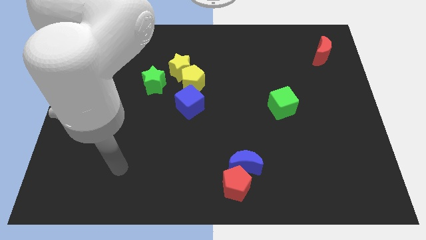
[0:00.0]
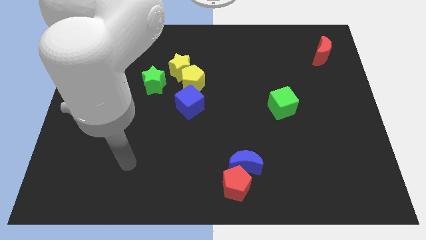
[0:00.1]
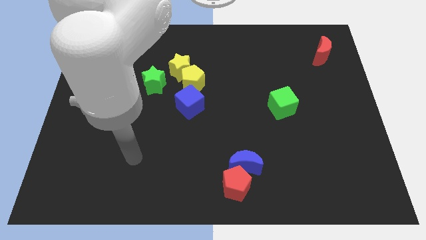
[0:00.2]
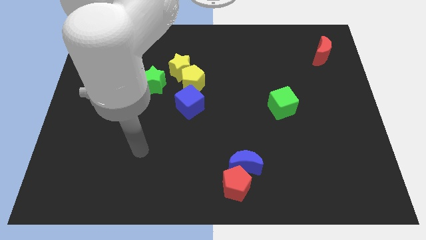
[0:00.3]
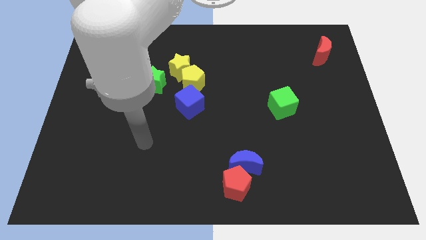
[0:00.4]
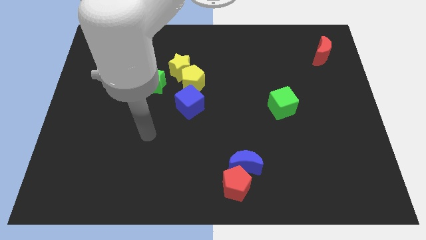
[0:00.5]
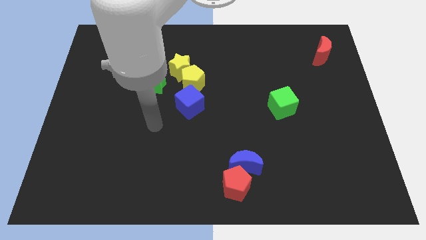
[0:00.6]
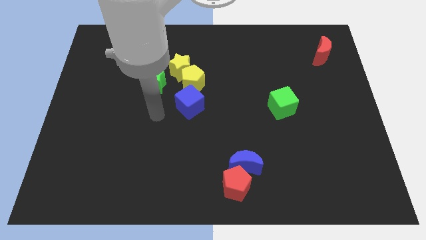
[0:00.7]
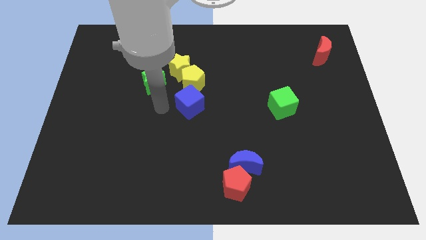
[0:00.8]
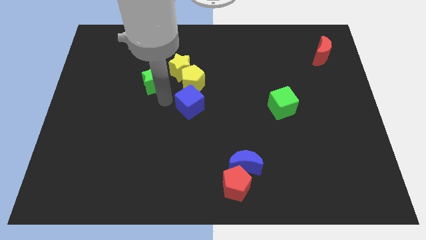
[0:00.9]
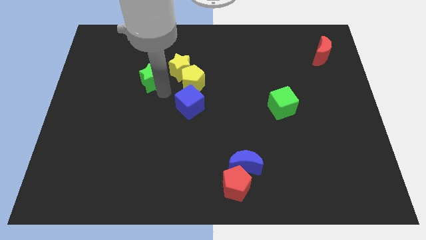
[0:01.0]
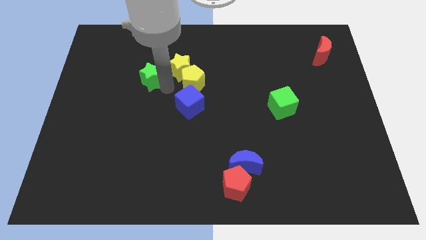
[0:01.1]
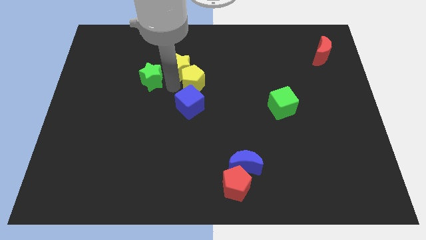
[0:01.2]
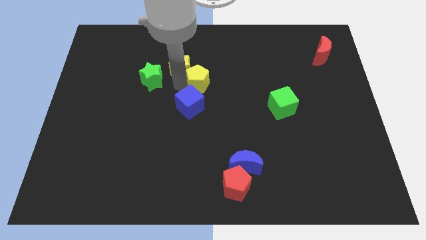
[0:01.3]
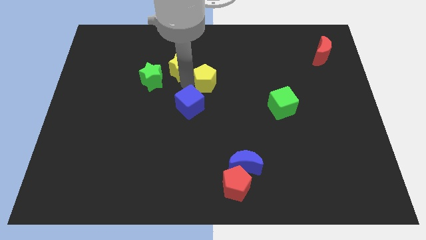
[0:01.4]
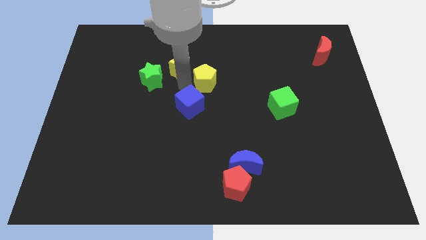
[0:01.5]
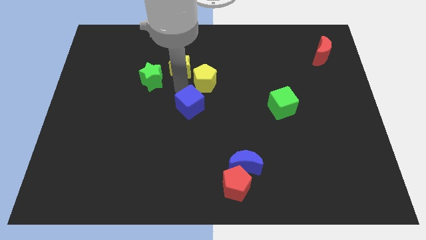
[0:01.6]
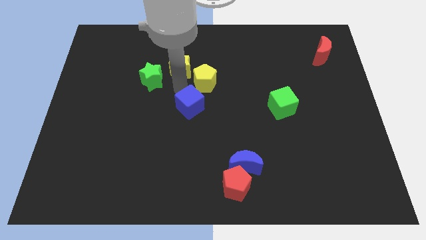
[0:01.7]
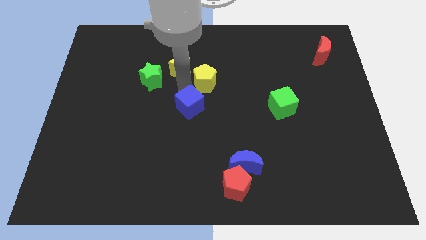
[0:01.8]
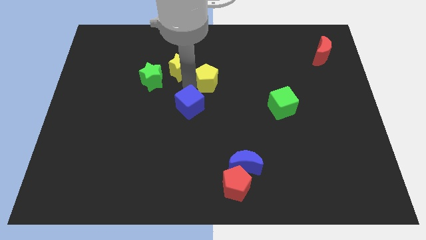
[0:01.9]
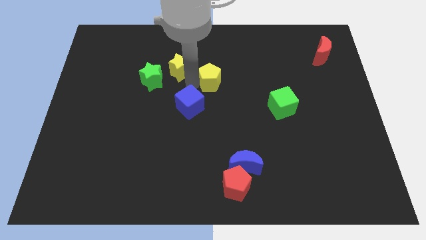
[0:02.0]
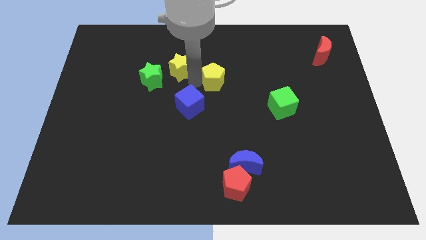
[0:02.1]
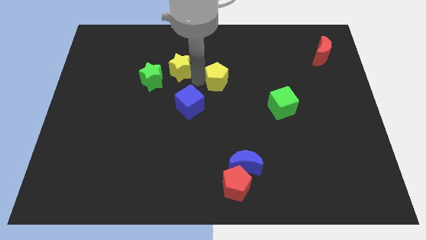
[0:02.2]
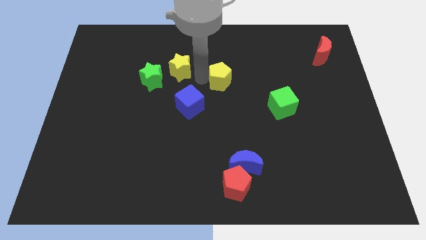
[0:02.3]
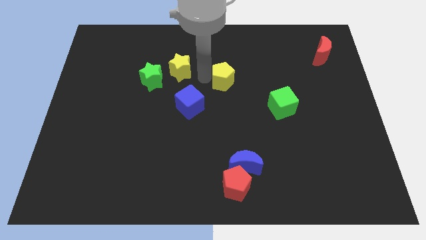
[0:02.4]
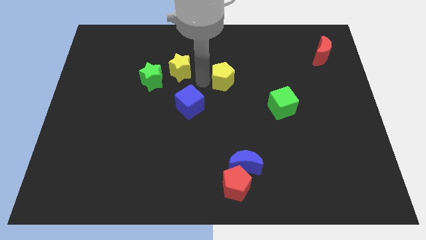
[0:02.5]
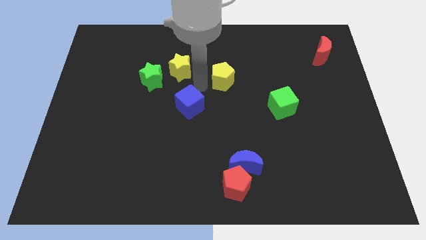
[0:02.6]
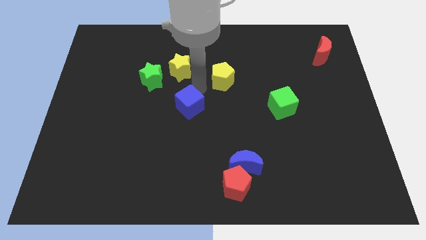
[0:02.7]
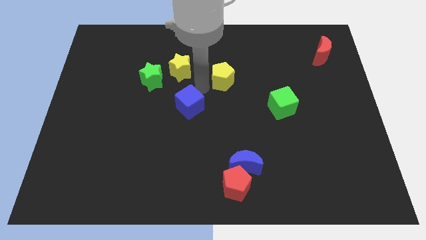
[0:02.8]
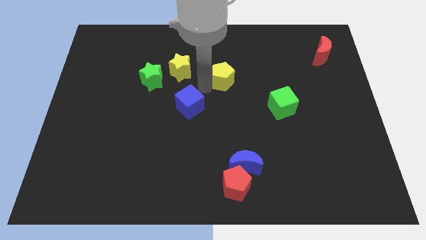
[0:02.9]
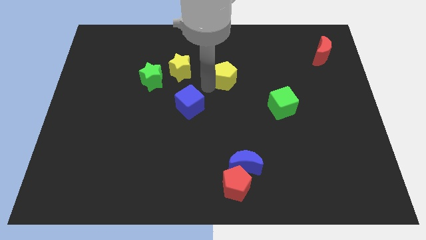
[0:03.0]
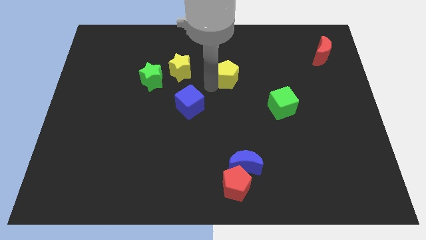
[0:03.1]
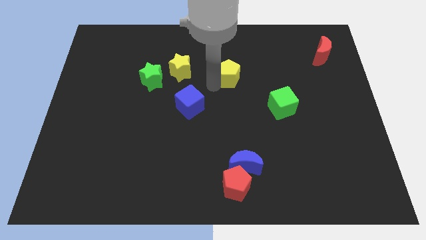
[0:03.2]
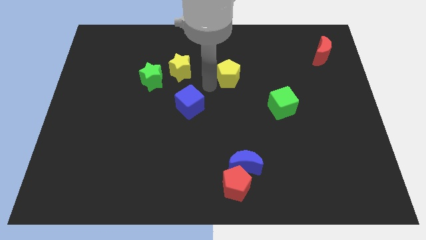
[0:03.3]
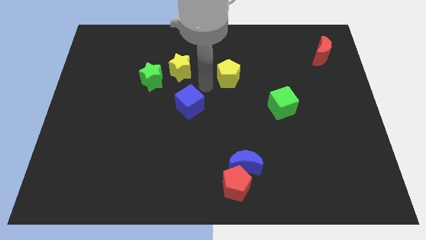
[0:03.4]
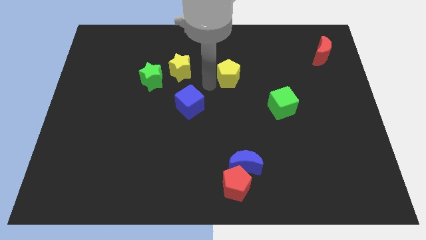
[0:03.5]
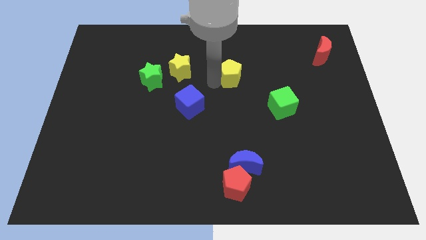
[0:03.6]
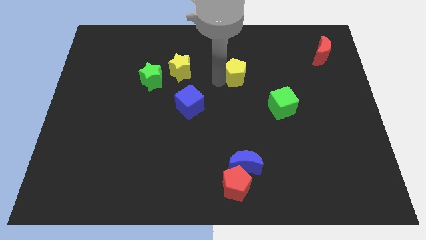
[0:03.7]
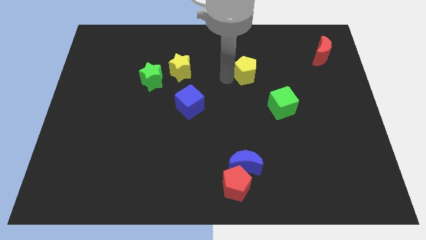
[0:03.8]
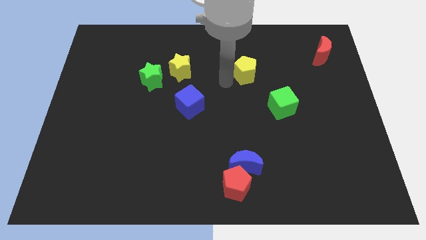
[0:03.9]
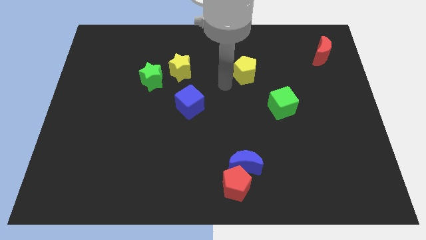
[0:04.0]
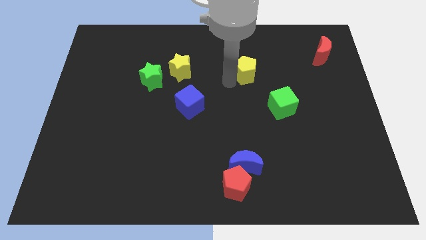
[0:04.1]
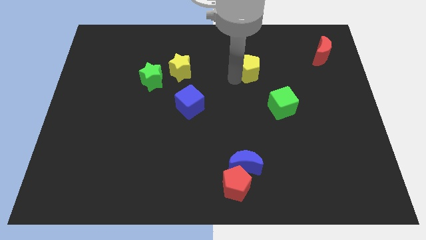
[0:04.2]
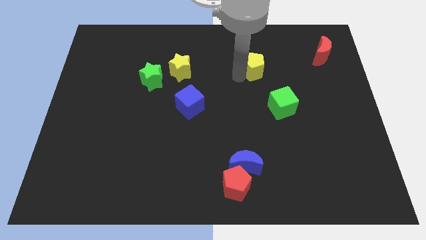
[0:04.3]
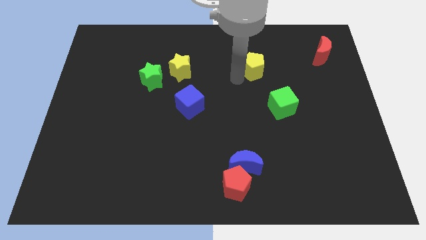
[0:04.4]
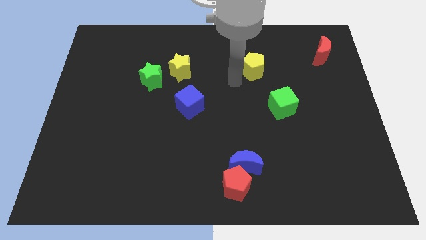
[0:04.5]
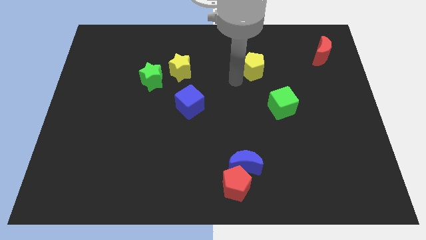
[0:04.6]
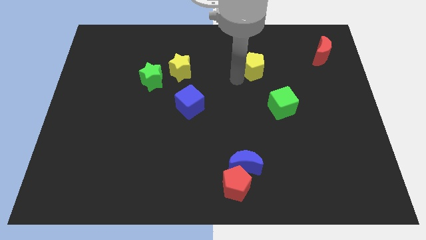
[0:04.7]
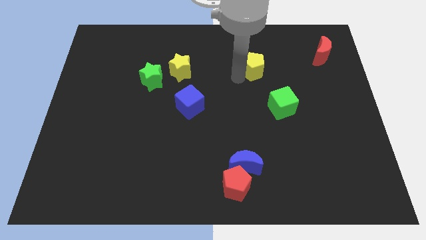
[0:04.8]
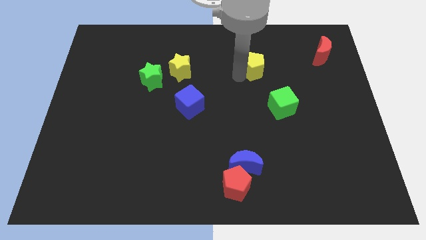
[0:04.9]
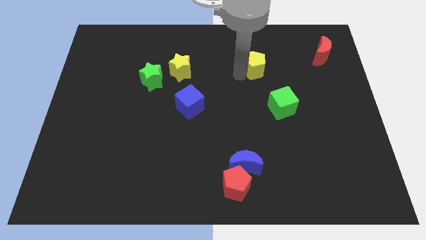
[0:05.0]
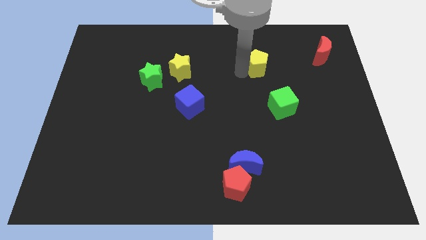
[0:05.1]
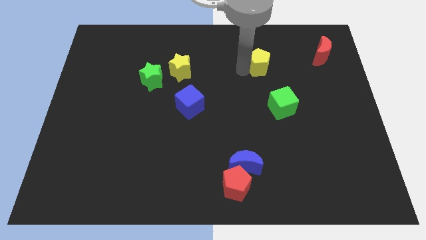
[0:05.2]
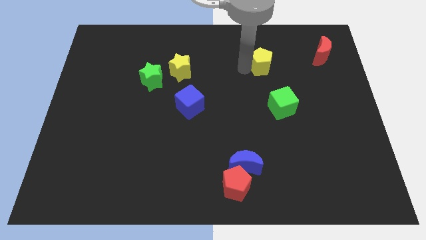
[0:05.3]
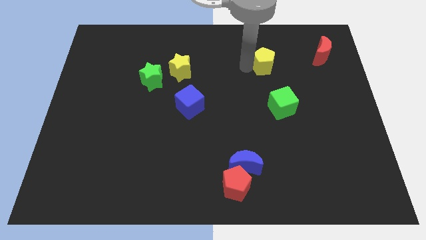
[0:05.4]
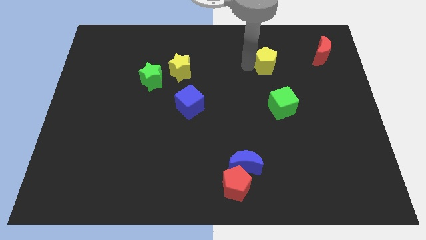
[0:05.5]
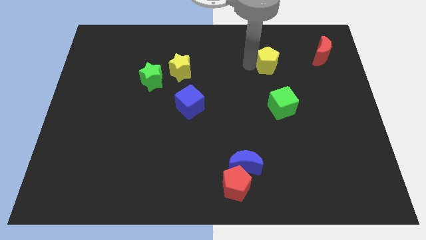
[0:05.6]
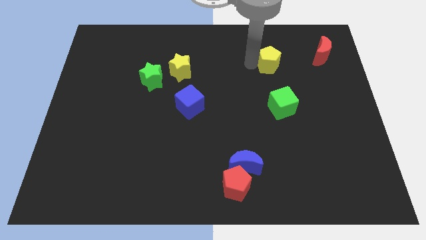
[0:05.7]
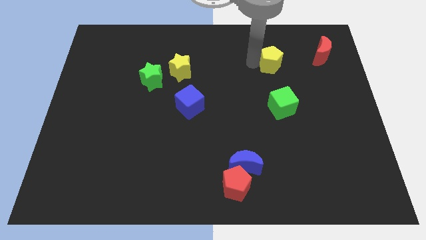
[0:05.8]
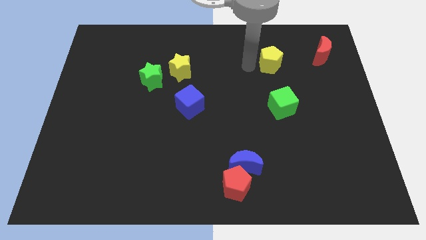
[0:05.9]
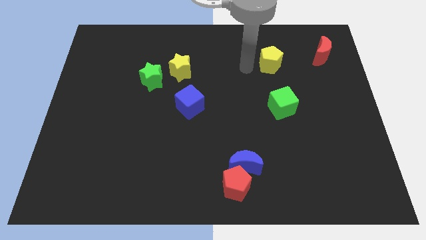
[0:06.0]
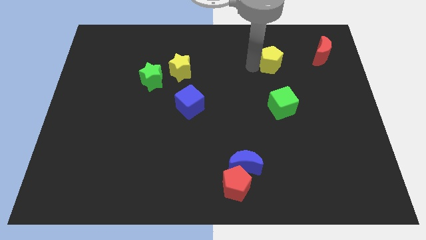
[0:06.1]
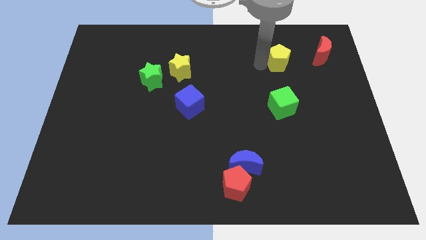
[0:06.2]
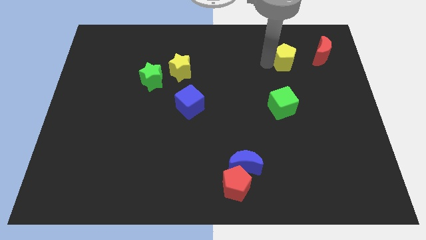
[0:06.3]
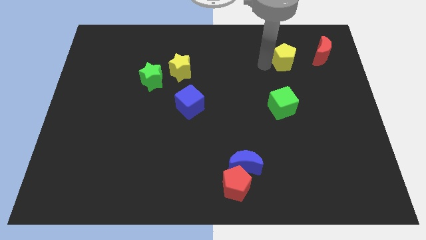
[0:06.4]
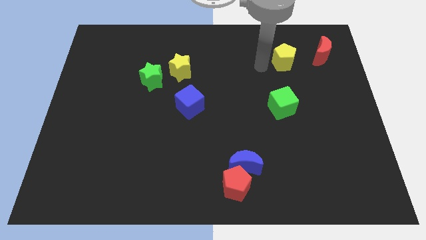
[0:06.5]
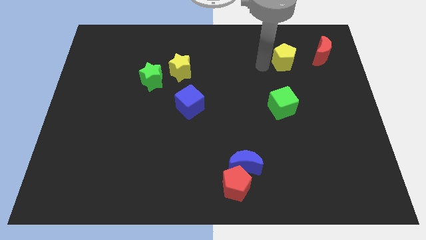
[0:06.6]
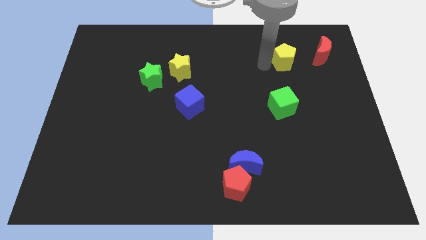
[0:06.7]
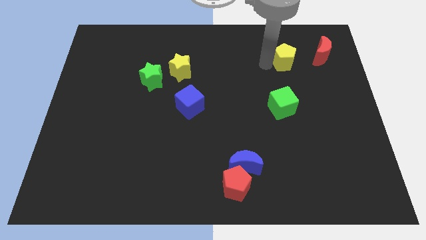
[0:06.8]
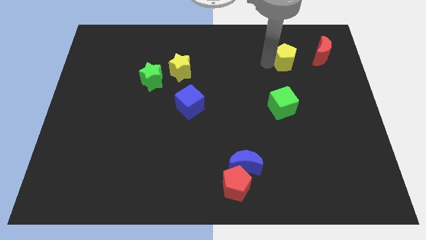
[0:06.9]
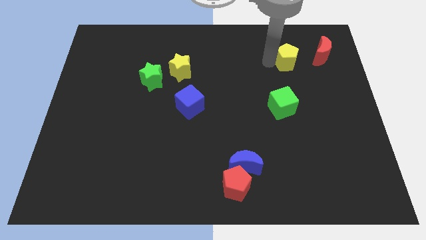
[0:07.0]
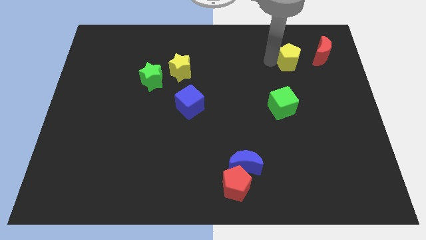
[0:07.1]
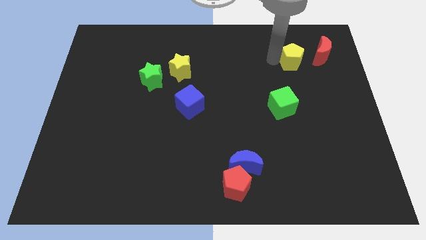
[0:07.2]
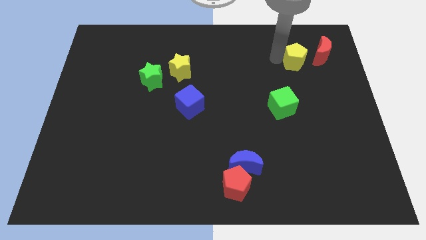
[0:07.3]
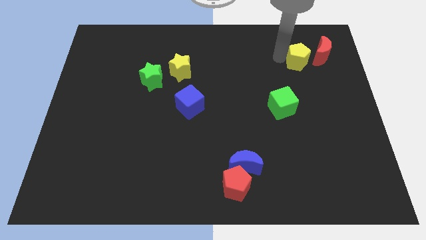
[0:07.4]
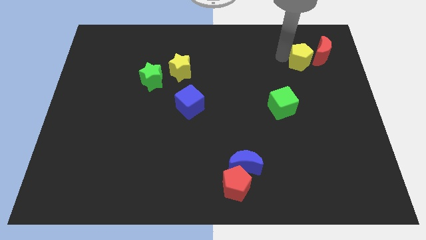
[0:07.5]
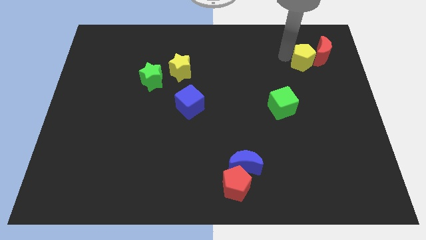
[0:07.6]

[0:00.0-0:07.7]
put the yellow pentagon to the red moon
